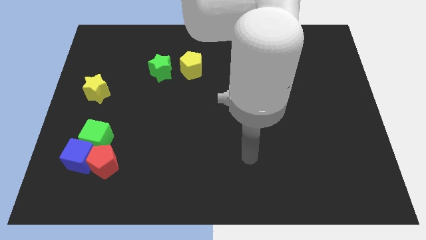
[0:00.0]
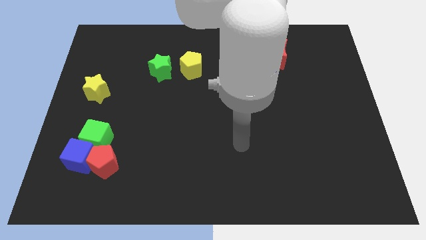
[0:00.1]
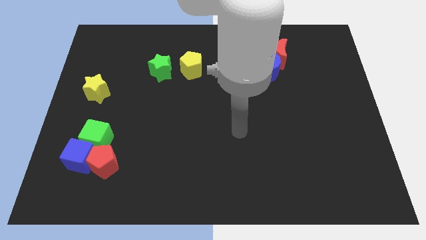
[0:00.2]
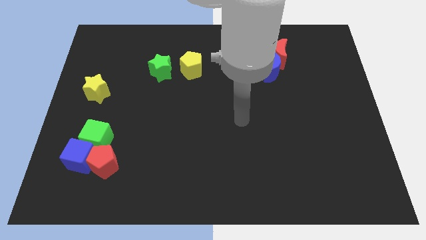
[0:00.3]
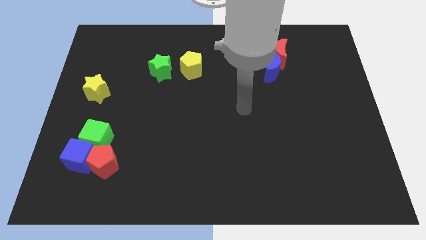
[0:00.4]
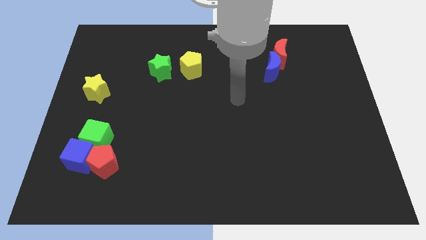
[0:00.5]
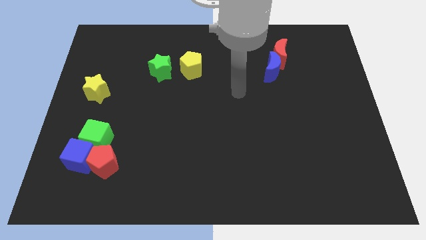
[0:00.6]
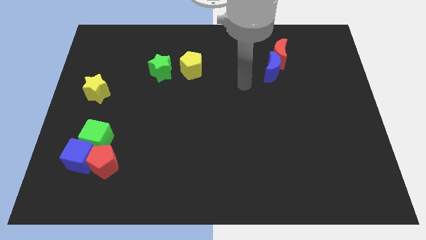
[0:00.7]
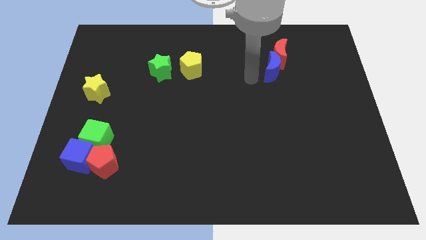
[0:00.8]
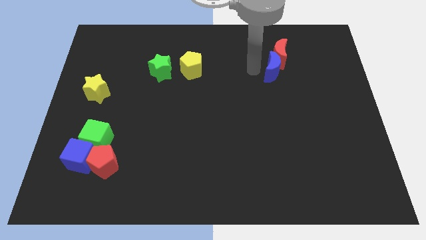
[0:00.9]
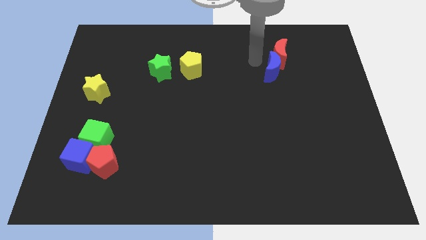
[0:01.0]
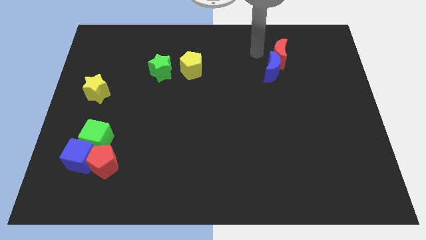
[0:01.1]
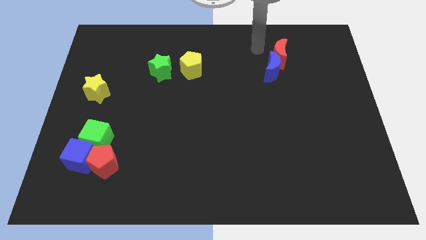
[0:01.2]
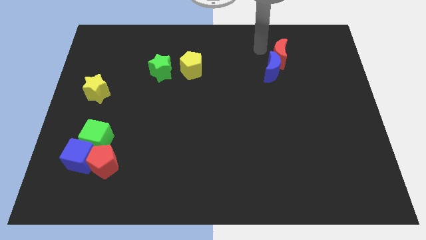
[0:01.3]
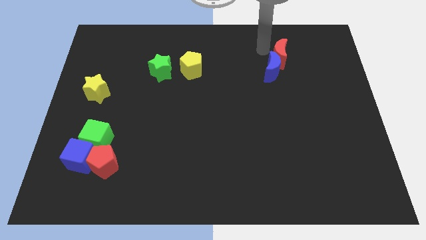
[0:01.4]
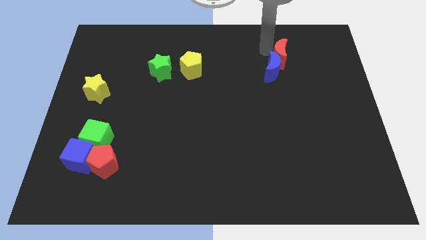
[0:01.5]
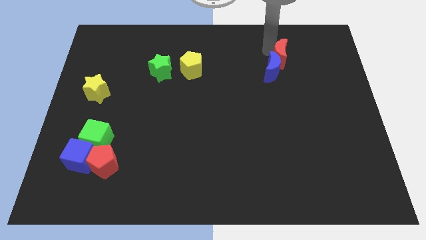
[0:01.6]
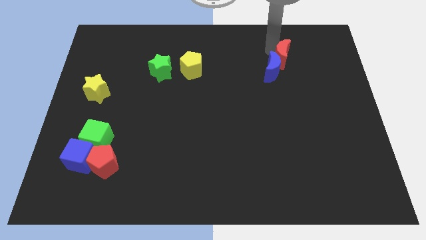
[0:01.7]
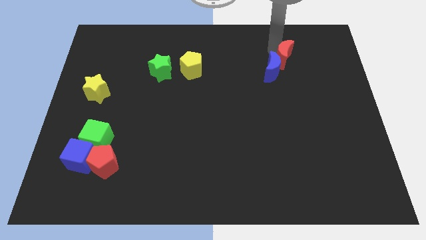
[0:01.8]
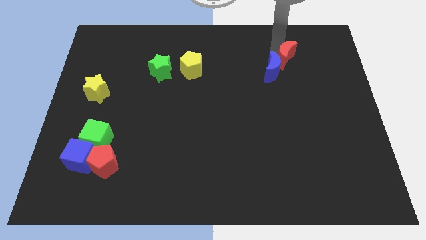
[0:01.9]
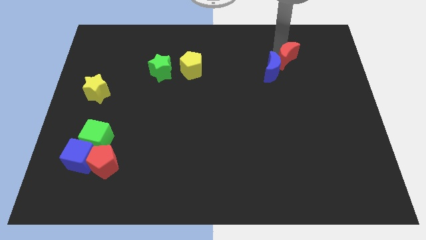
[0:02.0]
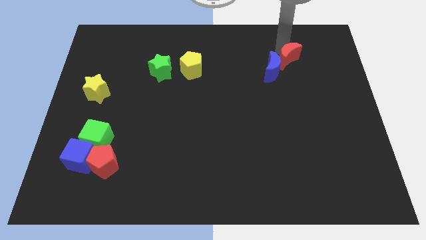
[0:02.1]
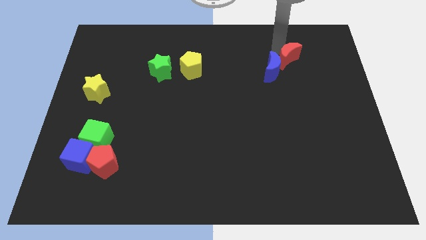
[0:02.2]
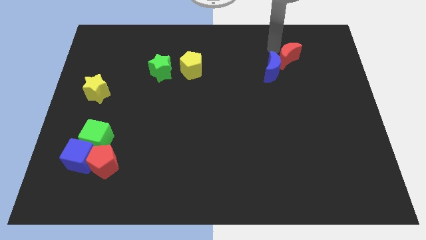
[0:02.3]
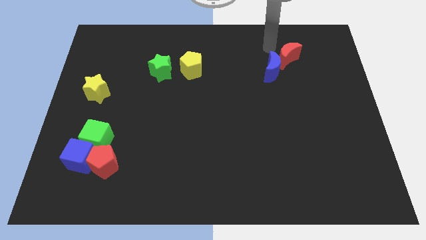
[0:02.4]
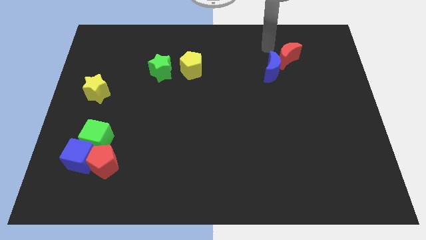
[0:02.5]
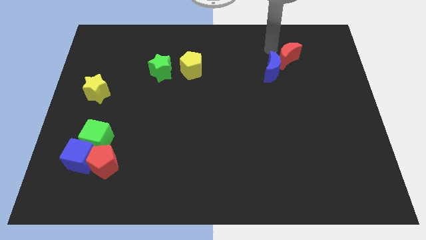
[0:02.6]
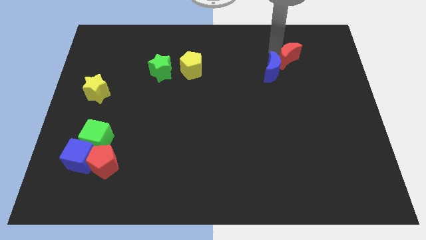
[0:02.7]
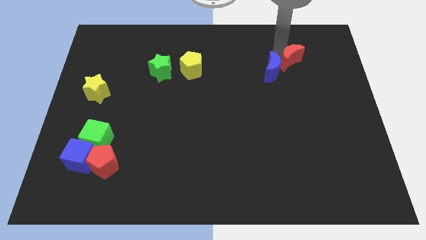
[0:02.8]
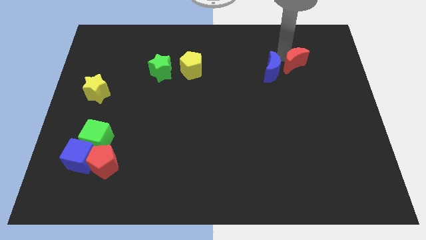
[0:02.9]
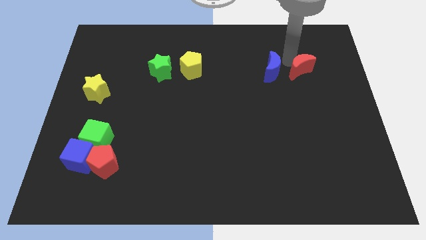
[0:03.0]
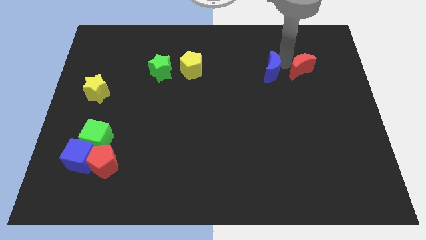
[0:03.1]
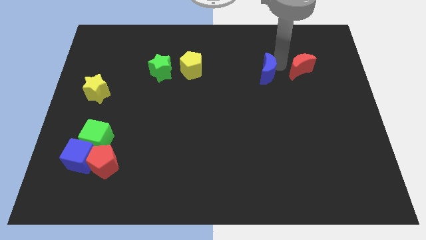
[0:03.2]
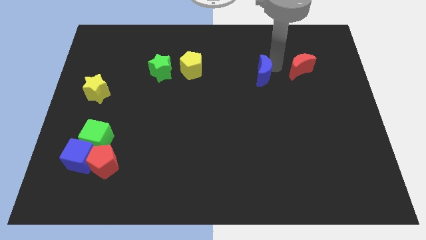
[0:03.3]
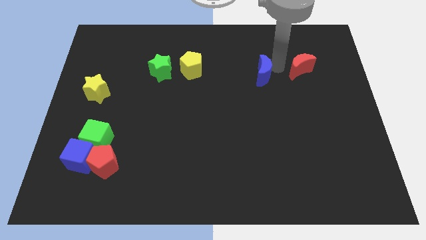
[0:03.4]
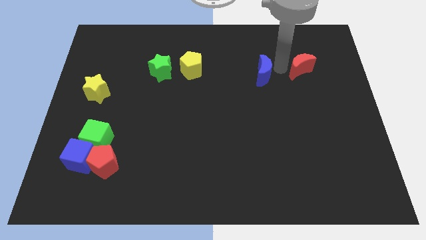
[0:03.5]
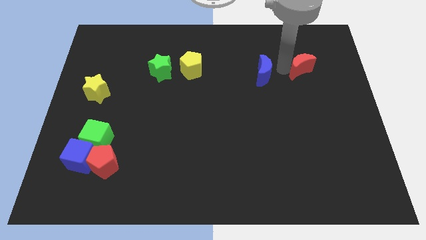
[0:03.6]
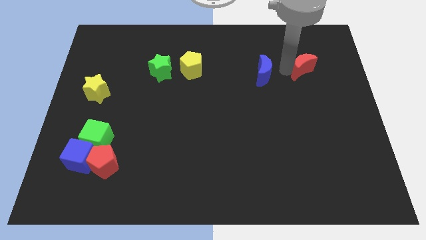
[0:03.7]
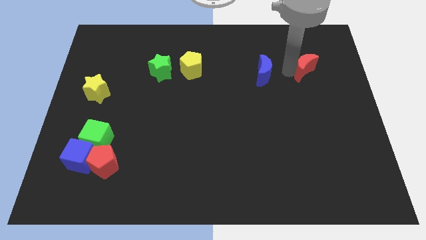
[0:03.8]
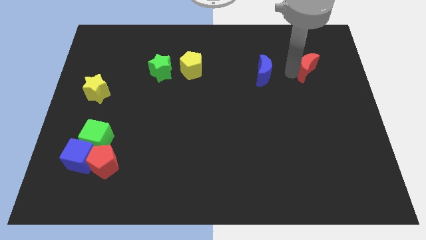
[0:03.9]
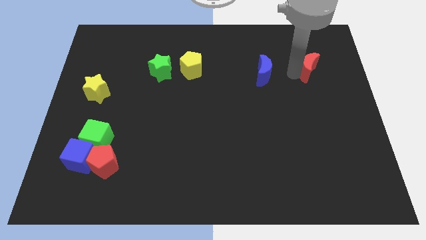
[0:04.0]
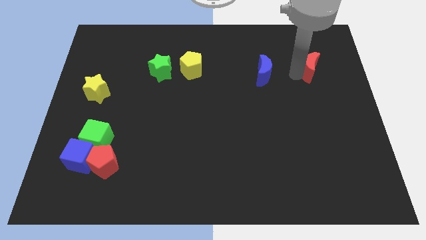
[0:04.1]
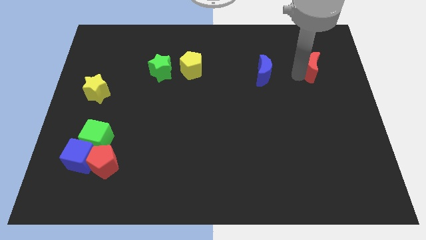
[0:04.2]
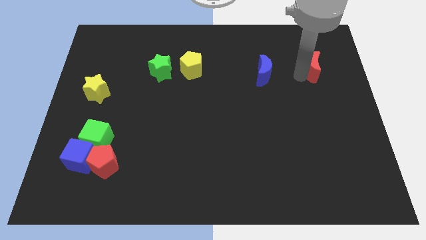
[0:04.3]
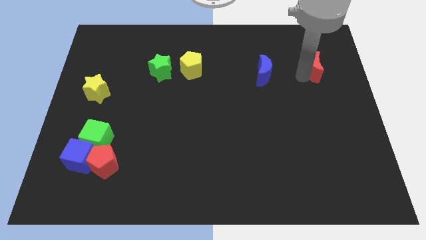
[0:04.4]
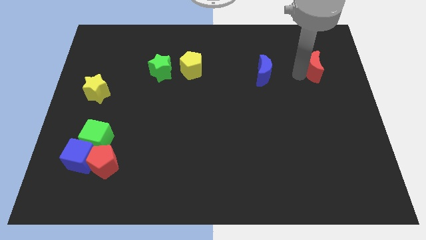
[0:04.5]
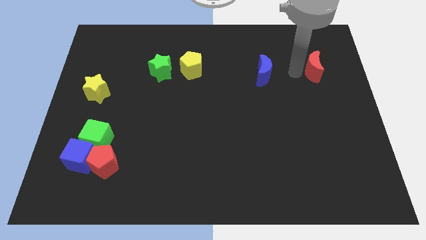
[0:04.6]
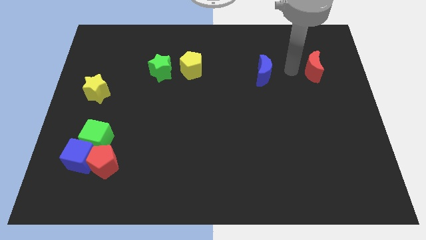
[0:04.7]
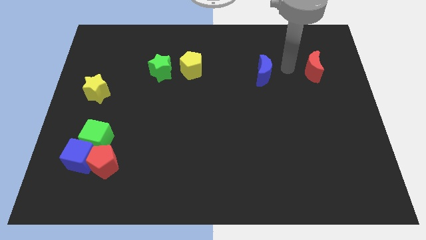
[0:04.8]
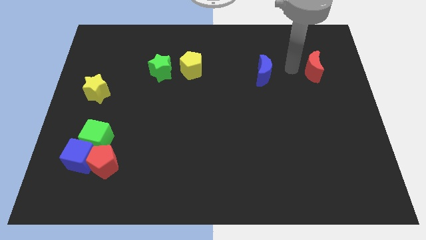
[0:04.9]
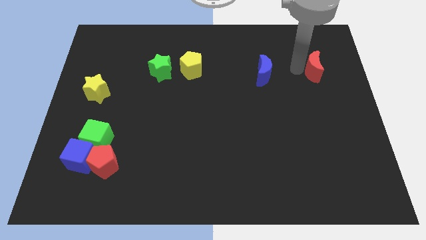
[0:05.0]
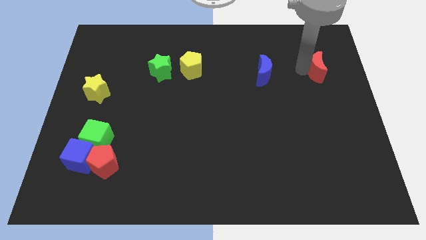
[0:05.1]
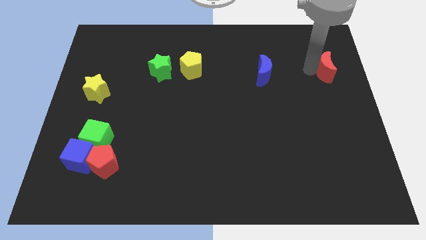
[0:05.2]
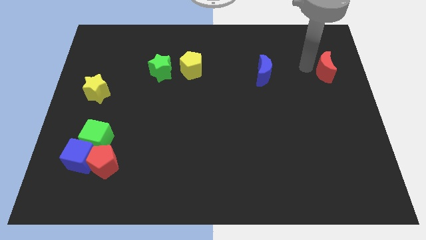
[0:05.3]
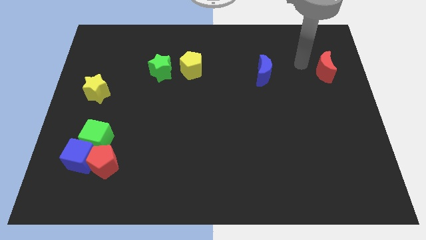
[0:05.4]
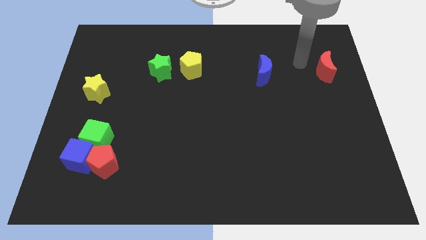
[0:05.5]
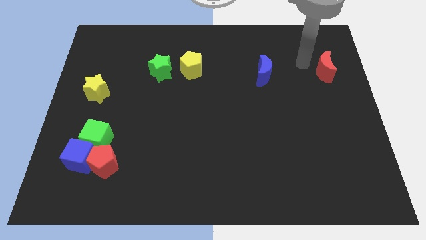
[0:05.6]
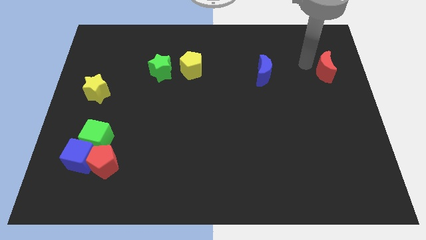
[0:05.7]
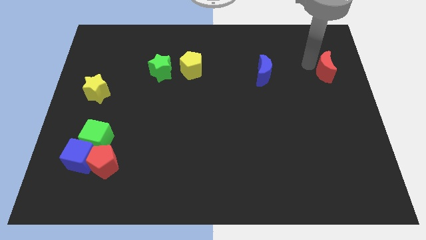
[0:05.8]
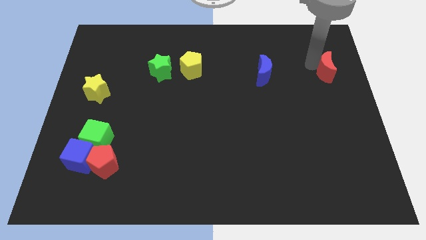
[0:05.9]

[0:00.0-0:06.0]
push the red moon to the right side

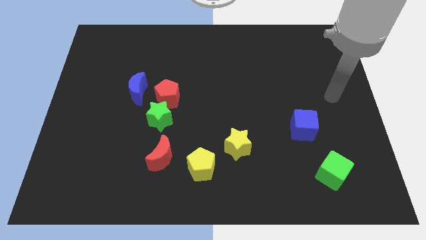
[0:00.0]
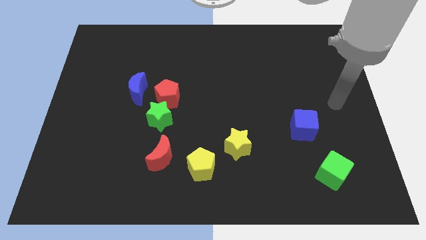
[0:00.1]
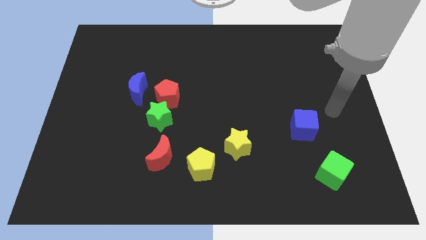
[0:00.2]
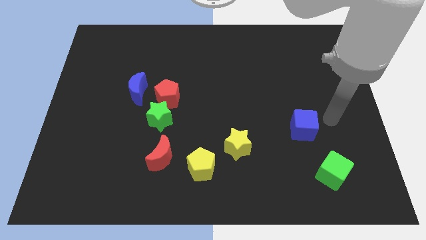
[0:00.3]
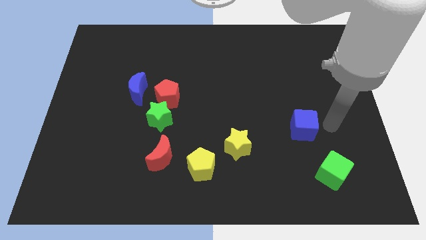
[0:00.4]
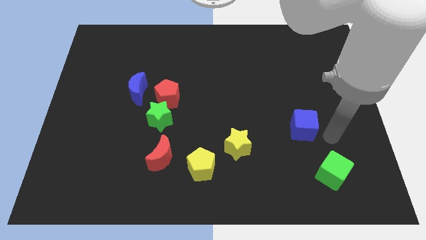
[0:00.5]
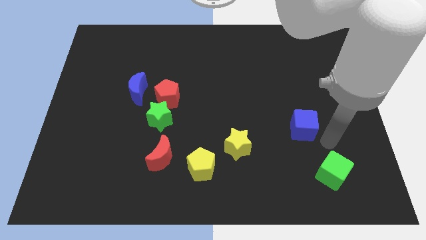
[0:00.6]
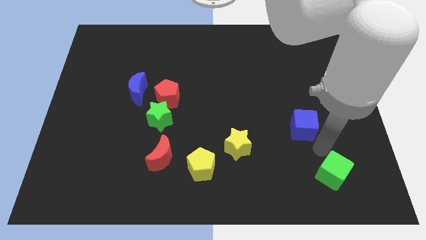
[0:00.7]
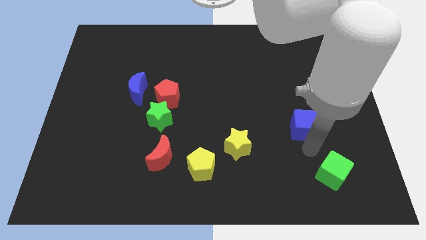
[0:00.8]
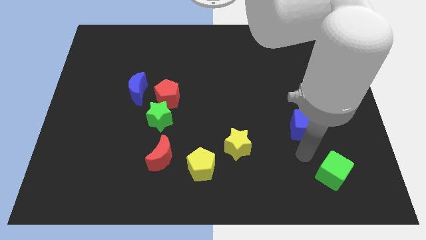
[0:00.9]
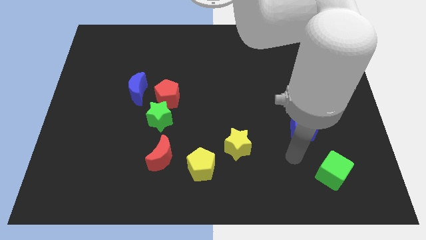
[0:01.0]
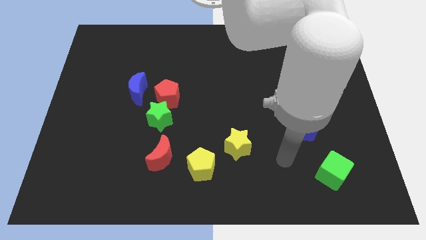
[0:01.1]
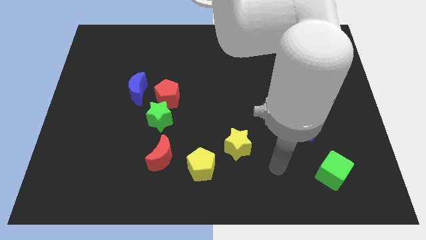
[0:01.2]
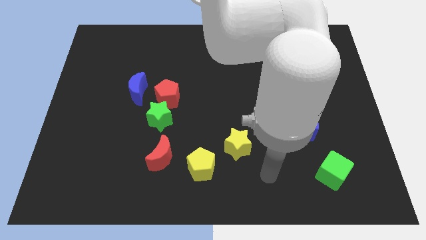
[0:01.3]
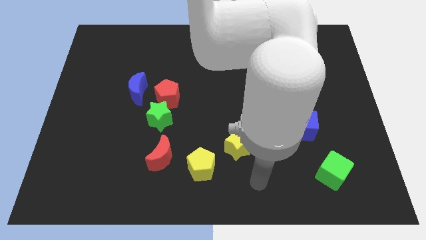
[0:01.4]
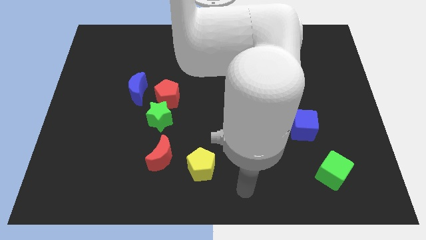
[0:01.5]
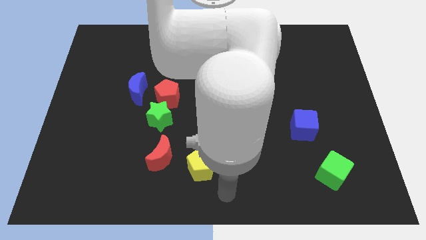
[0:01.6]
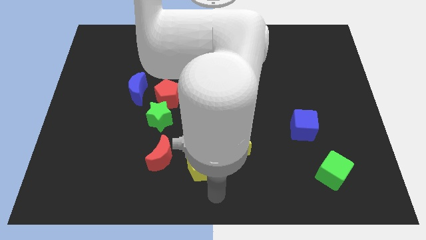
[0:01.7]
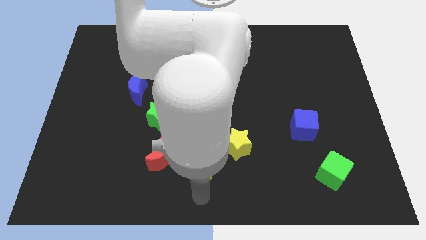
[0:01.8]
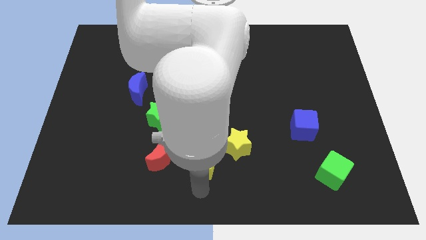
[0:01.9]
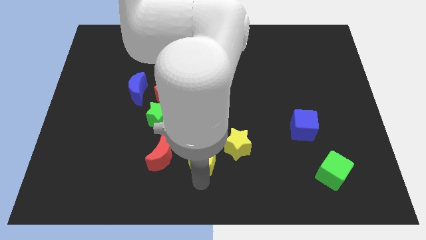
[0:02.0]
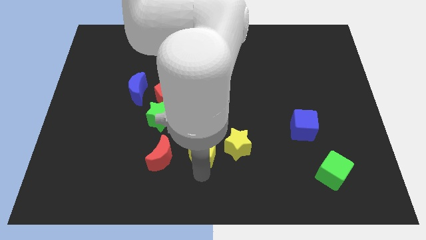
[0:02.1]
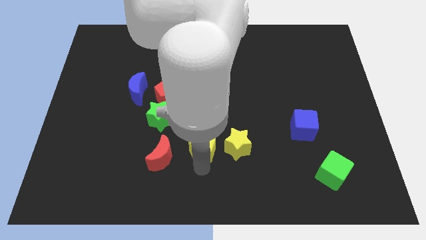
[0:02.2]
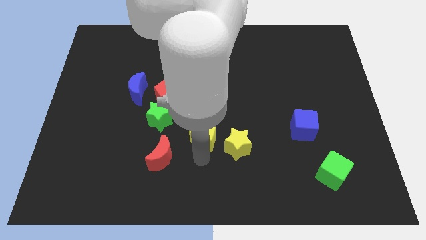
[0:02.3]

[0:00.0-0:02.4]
slide the yellow pentagon to the middle of the board
